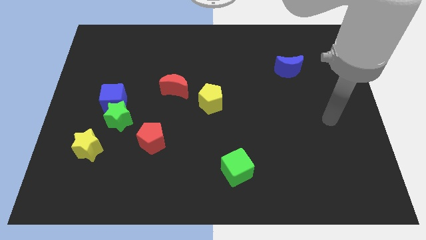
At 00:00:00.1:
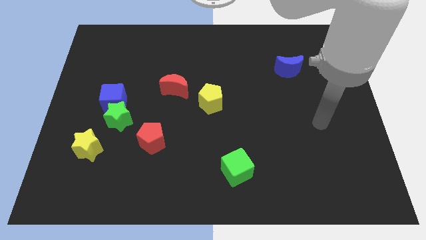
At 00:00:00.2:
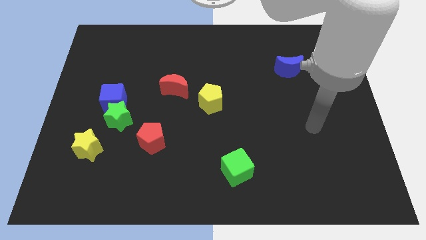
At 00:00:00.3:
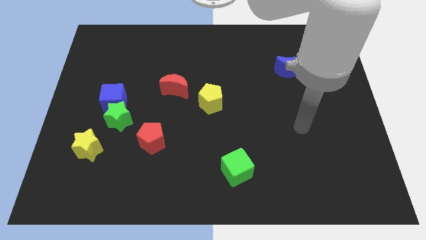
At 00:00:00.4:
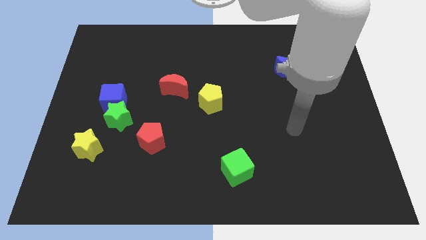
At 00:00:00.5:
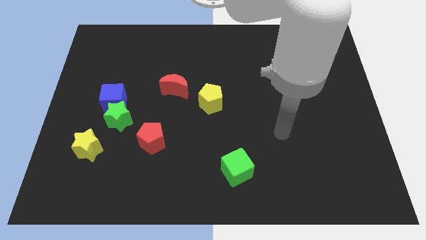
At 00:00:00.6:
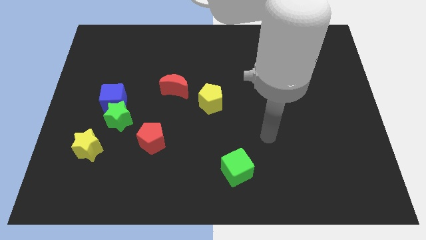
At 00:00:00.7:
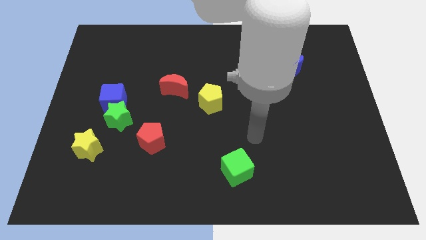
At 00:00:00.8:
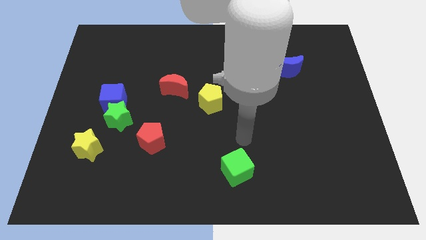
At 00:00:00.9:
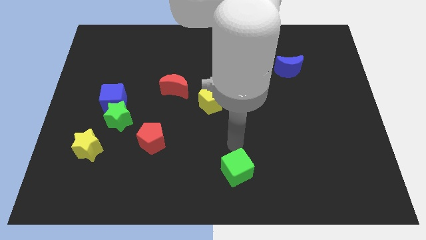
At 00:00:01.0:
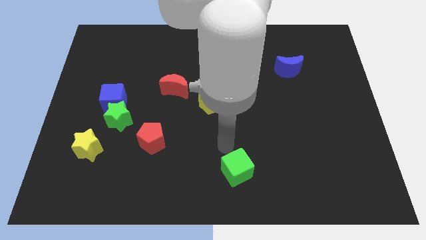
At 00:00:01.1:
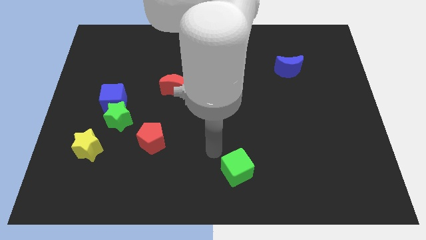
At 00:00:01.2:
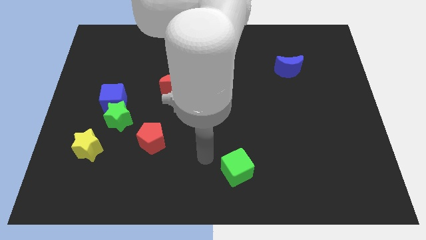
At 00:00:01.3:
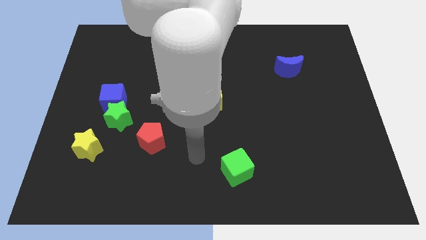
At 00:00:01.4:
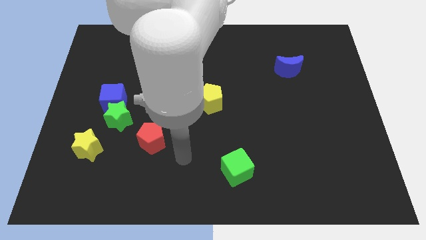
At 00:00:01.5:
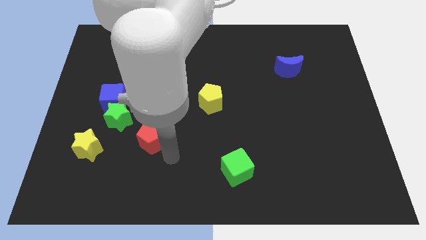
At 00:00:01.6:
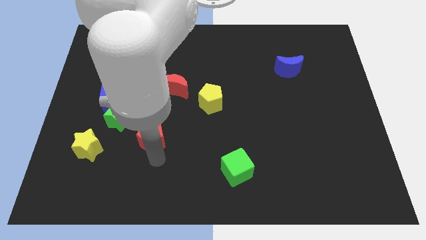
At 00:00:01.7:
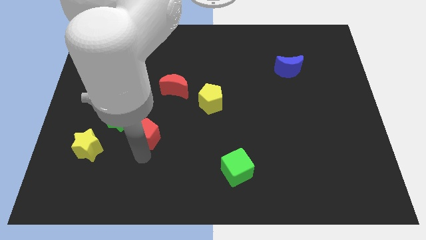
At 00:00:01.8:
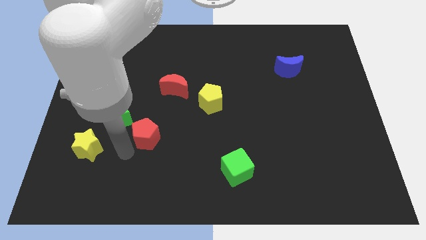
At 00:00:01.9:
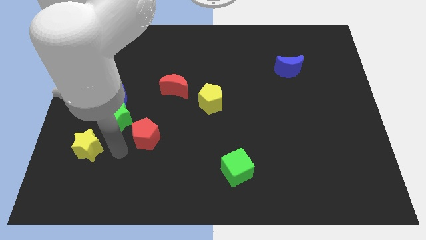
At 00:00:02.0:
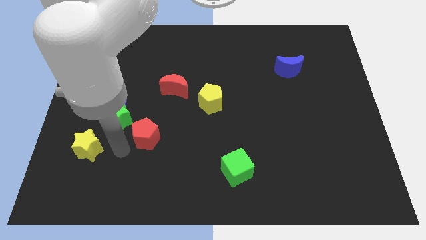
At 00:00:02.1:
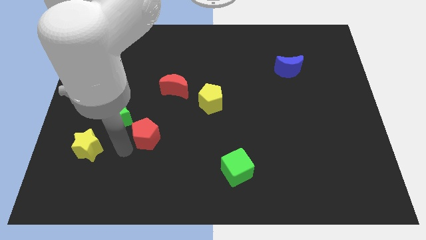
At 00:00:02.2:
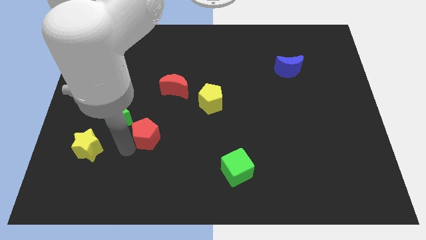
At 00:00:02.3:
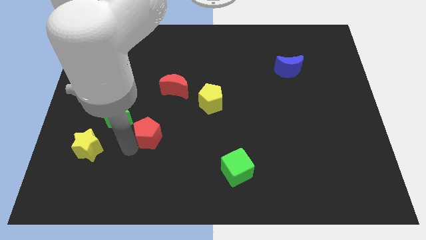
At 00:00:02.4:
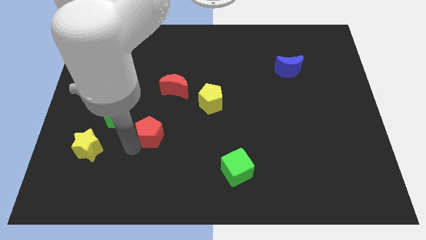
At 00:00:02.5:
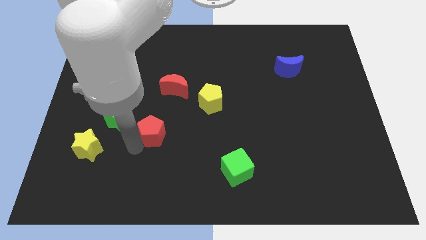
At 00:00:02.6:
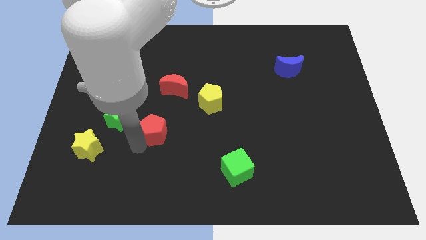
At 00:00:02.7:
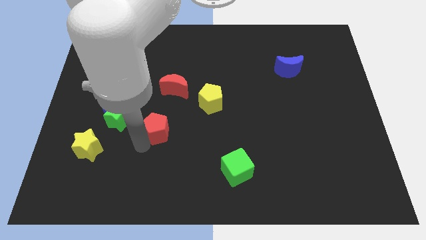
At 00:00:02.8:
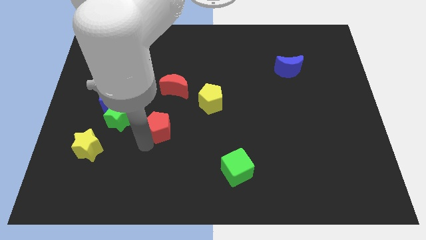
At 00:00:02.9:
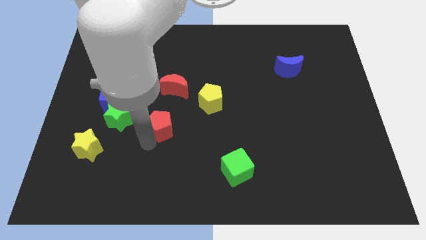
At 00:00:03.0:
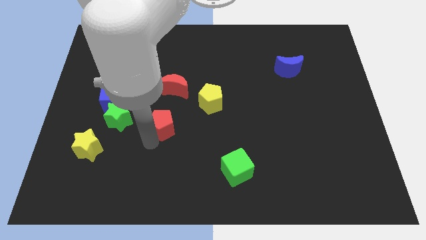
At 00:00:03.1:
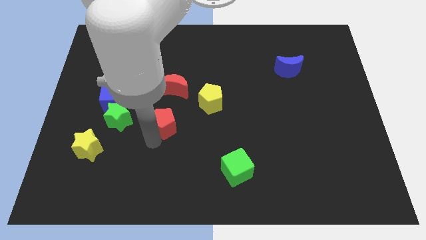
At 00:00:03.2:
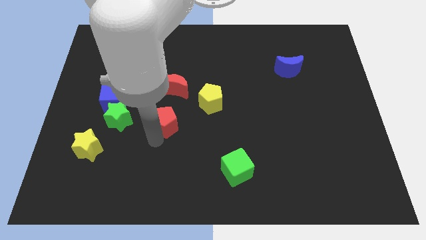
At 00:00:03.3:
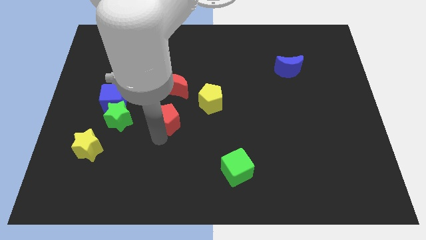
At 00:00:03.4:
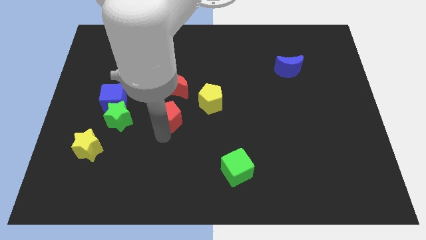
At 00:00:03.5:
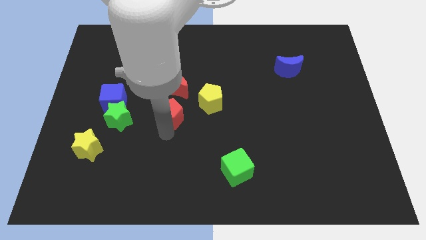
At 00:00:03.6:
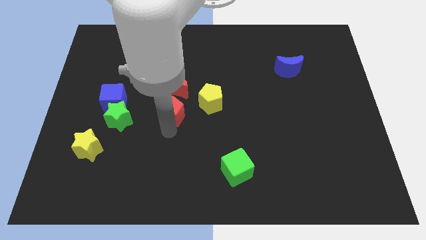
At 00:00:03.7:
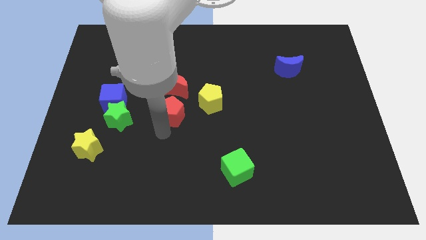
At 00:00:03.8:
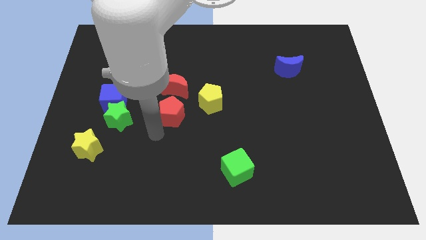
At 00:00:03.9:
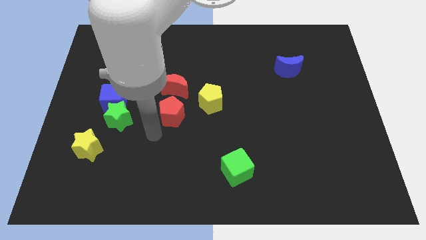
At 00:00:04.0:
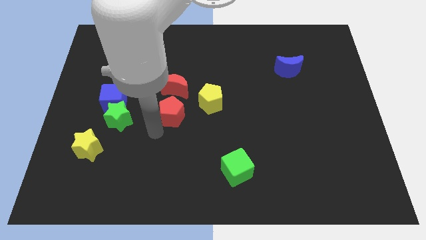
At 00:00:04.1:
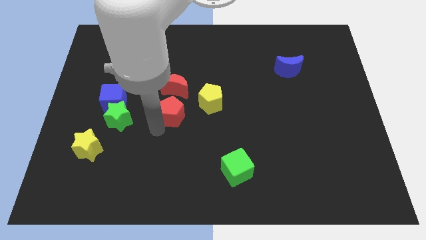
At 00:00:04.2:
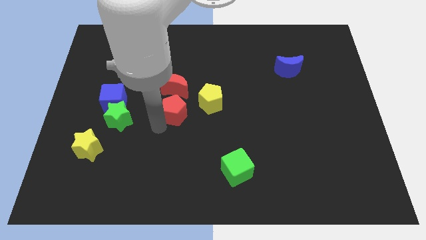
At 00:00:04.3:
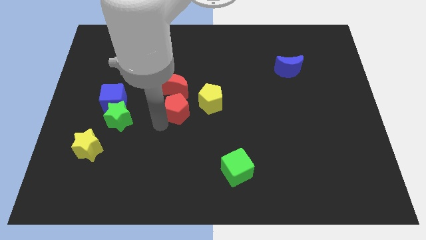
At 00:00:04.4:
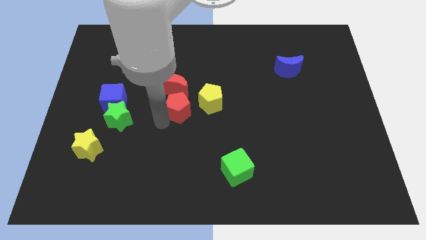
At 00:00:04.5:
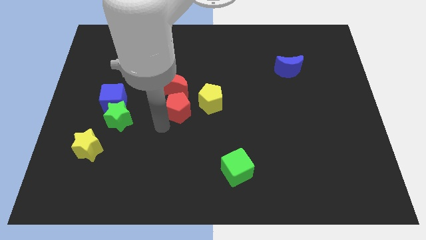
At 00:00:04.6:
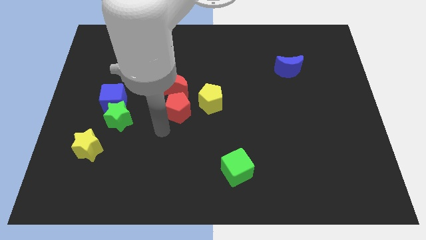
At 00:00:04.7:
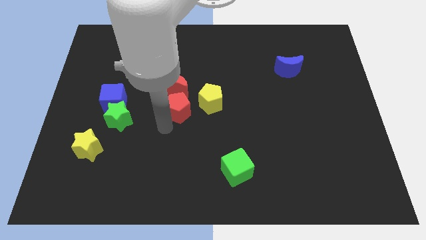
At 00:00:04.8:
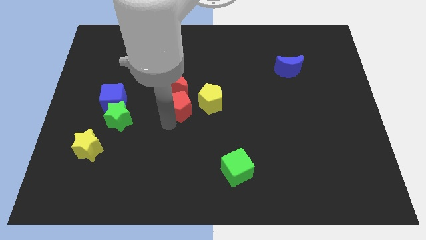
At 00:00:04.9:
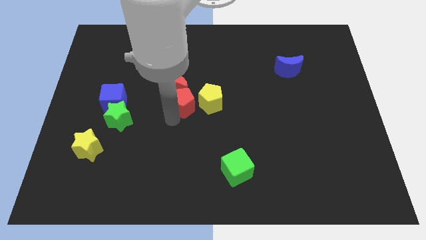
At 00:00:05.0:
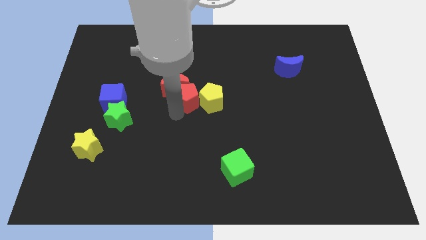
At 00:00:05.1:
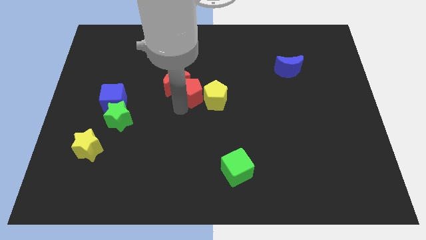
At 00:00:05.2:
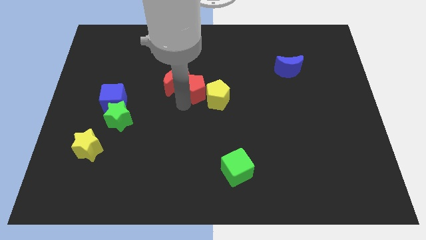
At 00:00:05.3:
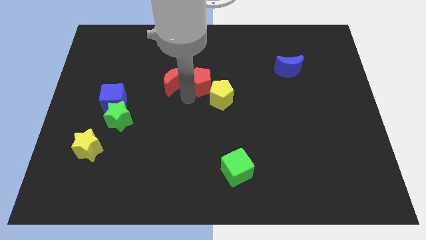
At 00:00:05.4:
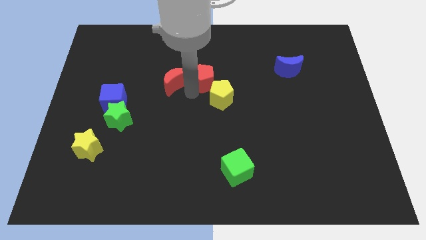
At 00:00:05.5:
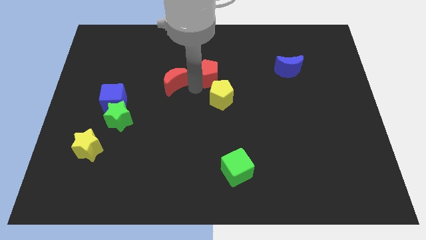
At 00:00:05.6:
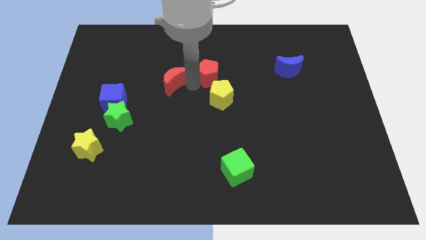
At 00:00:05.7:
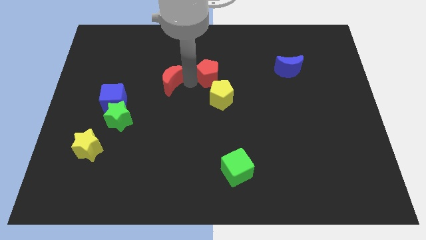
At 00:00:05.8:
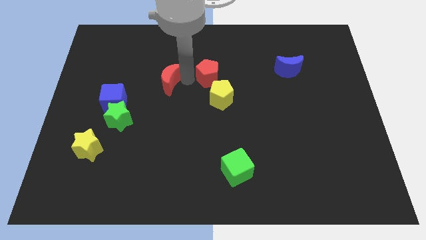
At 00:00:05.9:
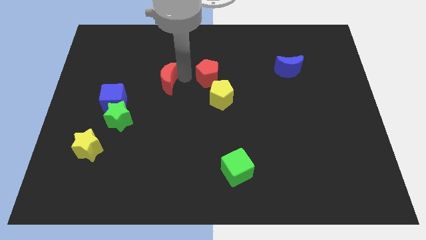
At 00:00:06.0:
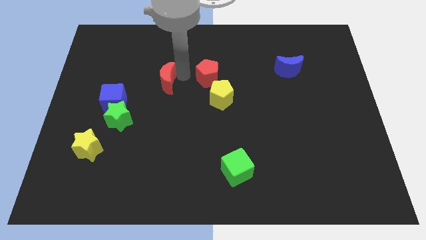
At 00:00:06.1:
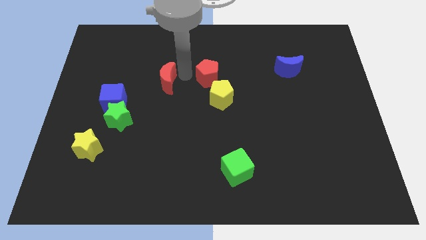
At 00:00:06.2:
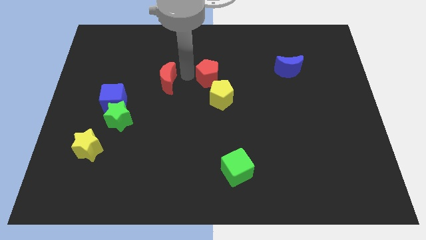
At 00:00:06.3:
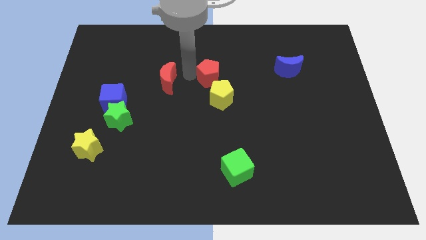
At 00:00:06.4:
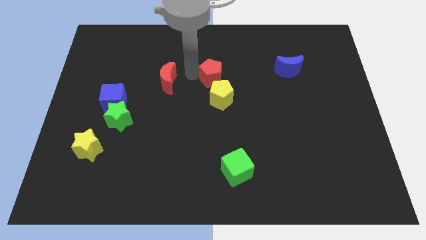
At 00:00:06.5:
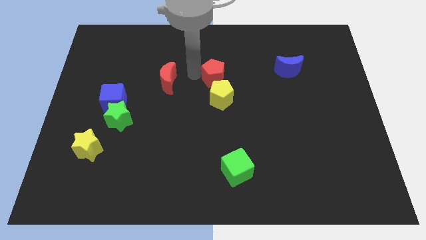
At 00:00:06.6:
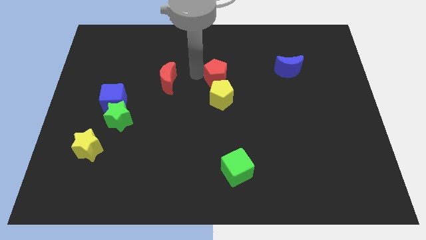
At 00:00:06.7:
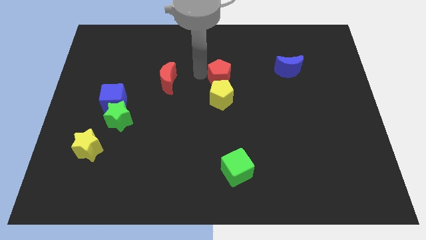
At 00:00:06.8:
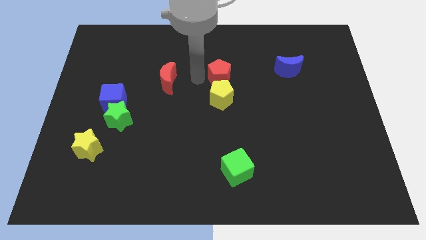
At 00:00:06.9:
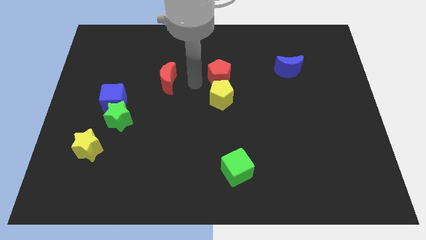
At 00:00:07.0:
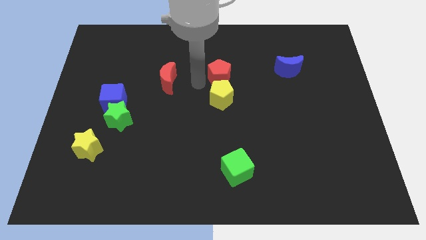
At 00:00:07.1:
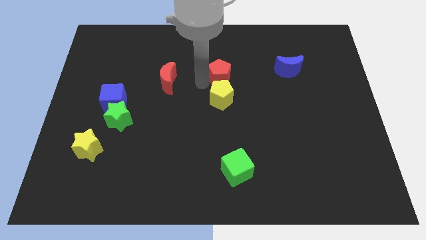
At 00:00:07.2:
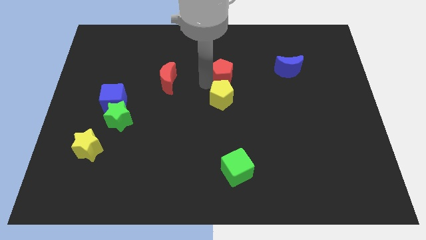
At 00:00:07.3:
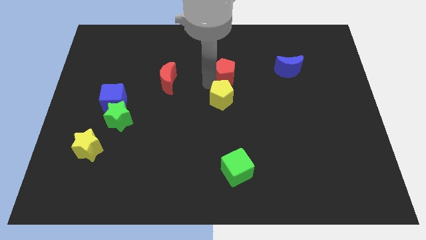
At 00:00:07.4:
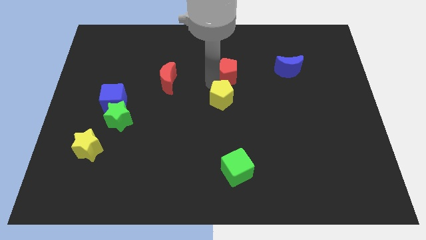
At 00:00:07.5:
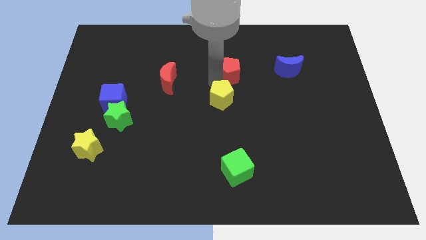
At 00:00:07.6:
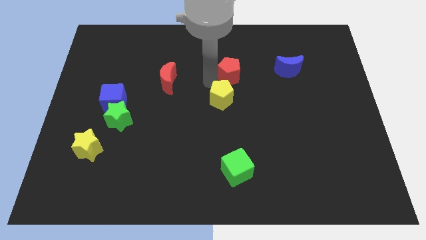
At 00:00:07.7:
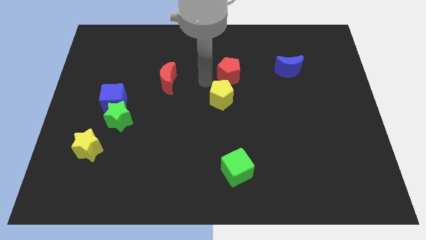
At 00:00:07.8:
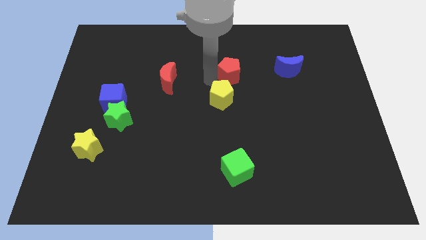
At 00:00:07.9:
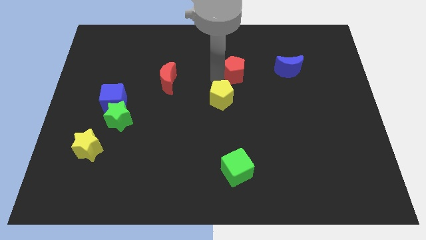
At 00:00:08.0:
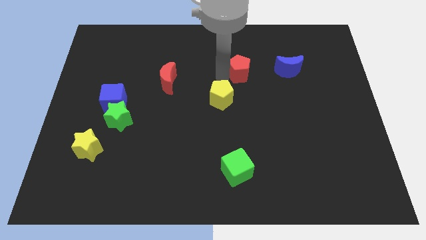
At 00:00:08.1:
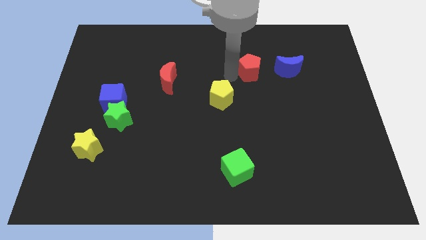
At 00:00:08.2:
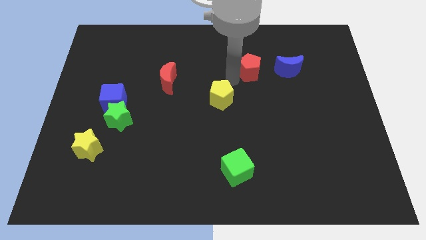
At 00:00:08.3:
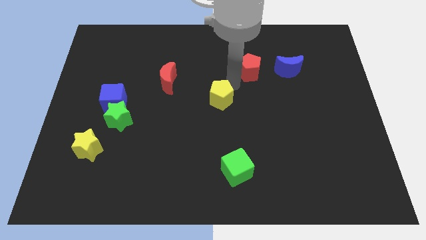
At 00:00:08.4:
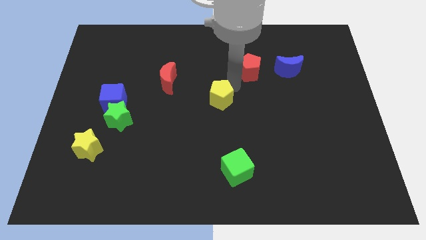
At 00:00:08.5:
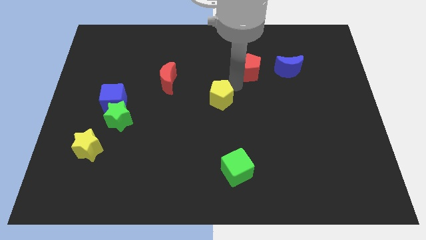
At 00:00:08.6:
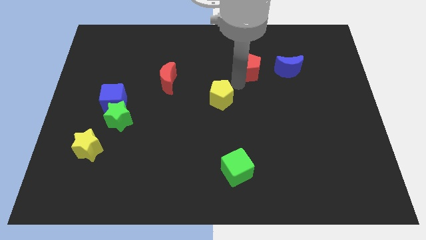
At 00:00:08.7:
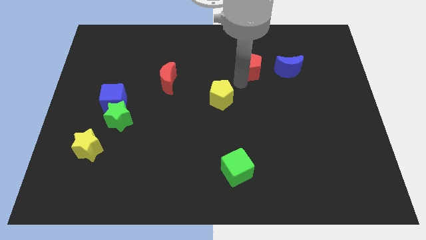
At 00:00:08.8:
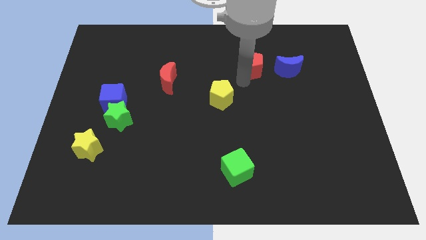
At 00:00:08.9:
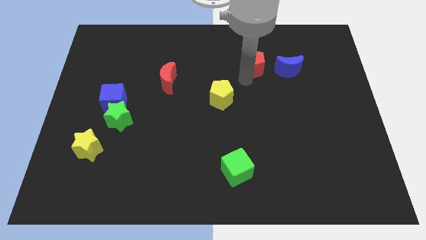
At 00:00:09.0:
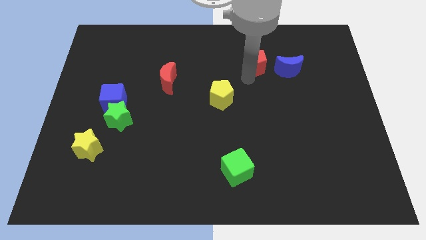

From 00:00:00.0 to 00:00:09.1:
slide the red pentagon to the top left side of the blue moon
